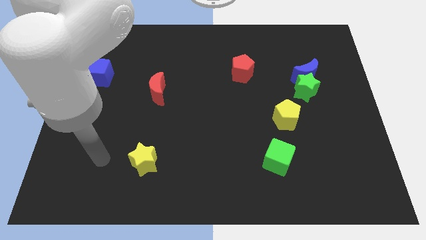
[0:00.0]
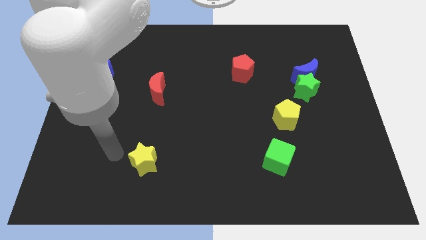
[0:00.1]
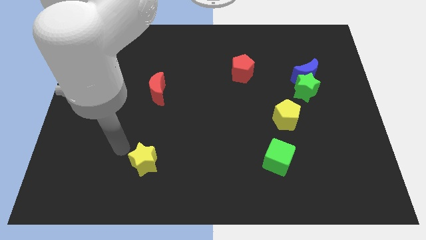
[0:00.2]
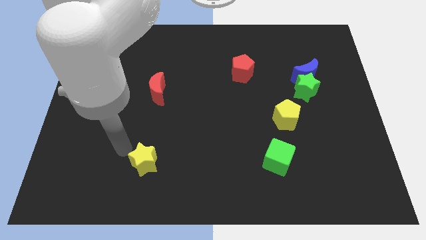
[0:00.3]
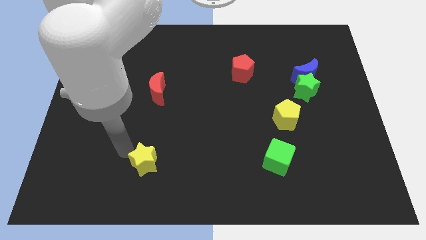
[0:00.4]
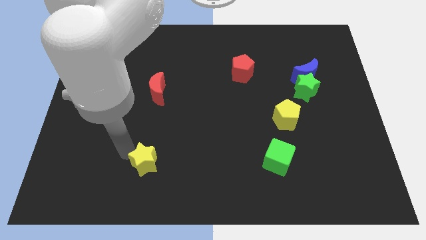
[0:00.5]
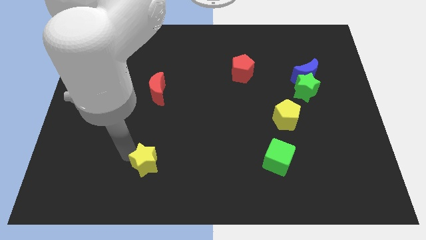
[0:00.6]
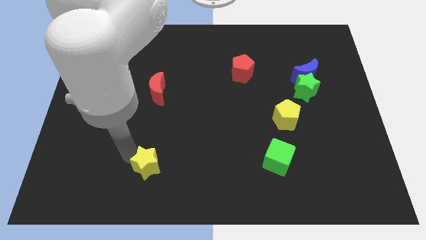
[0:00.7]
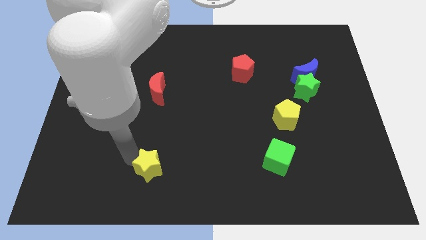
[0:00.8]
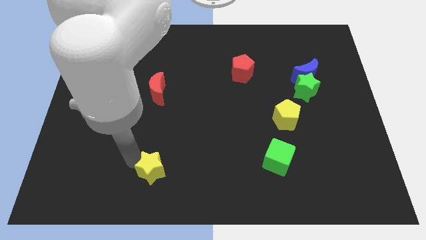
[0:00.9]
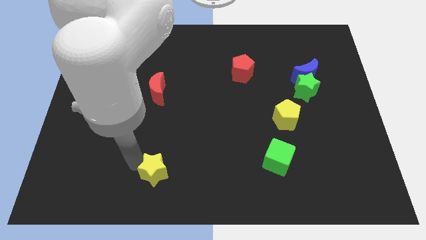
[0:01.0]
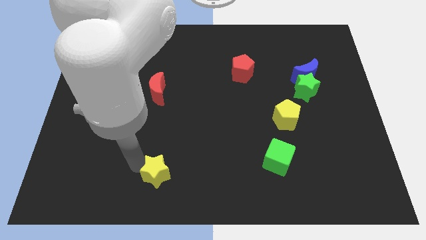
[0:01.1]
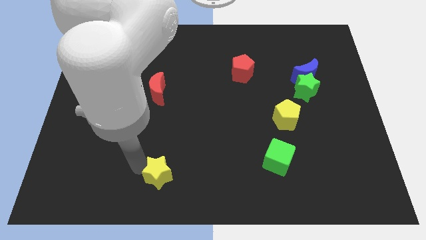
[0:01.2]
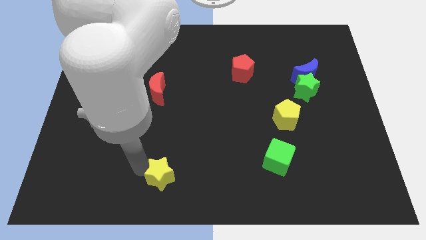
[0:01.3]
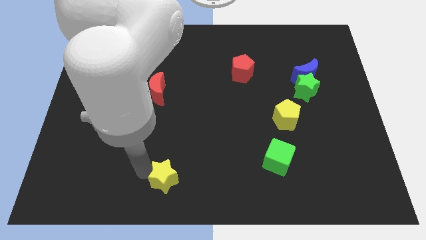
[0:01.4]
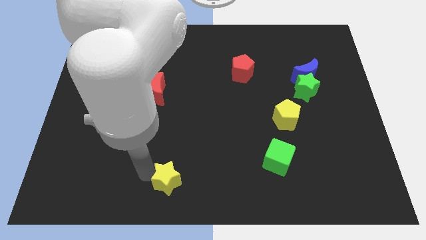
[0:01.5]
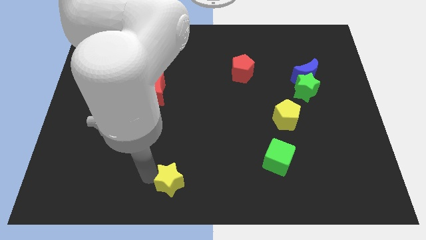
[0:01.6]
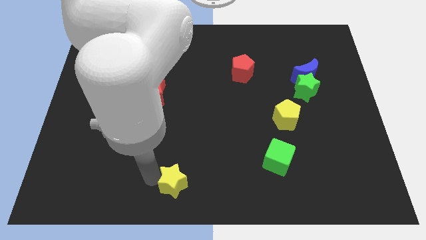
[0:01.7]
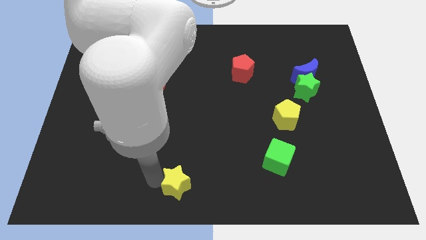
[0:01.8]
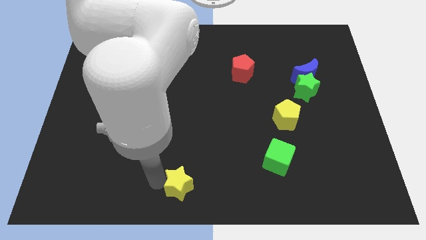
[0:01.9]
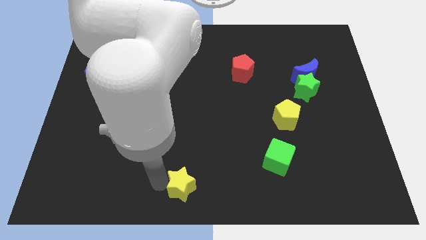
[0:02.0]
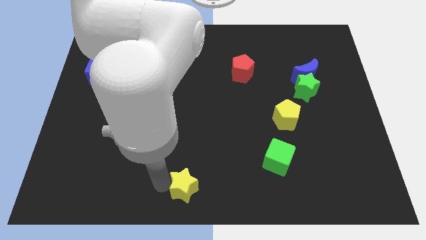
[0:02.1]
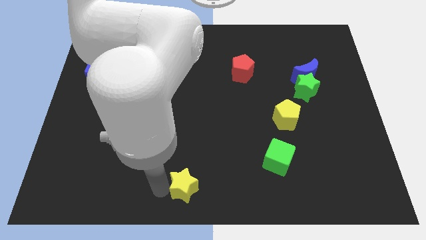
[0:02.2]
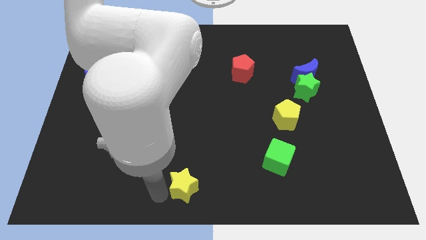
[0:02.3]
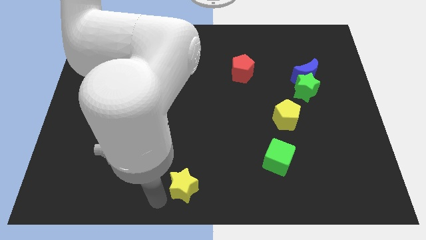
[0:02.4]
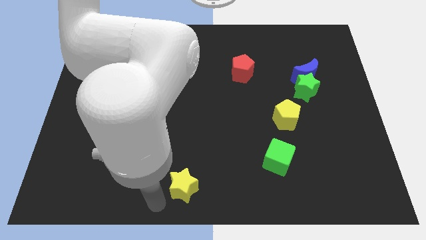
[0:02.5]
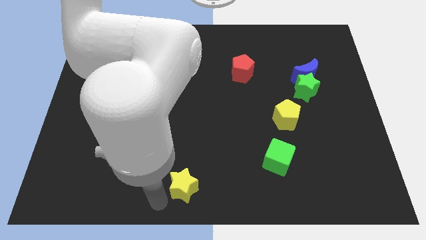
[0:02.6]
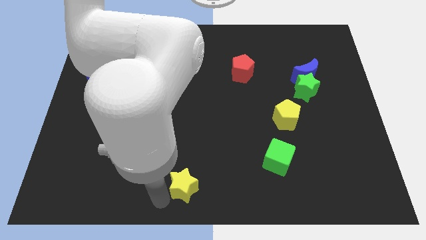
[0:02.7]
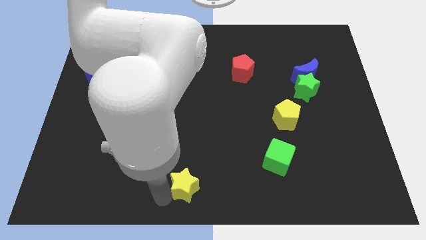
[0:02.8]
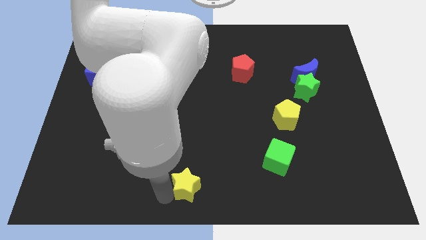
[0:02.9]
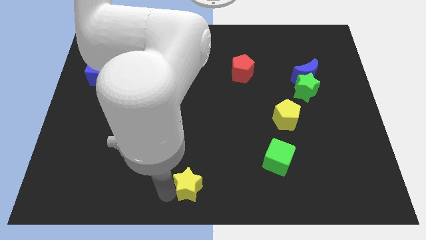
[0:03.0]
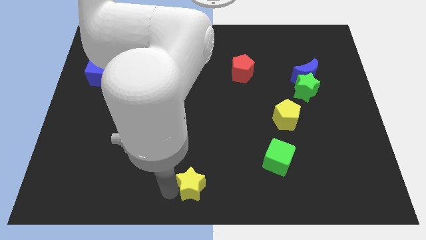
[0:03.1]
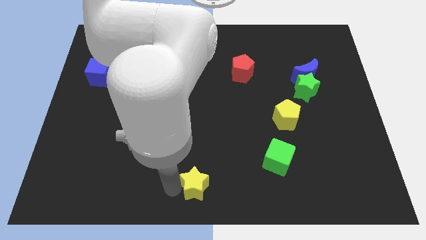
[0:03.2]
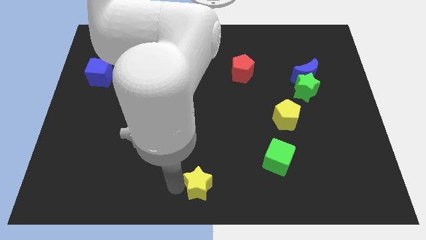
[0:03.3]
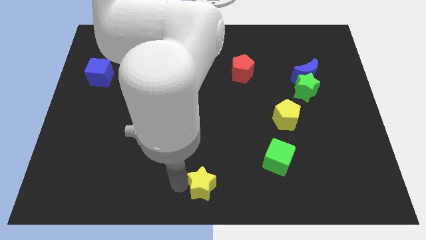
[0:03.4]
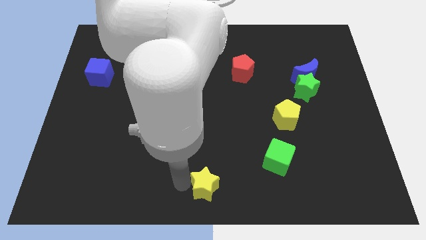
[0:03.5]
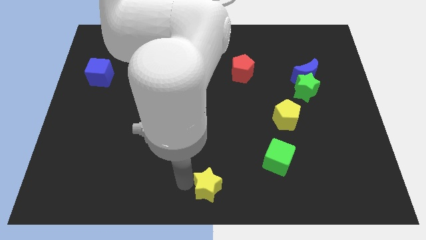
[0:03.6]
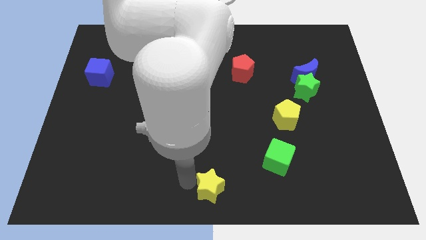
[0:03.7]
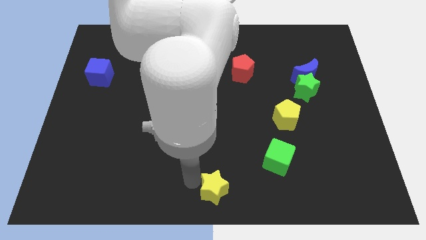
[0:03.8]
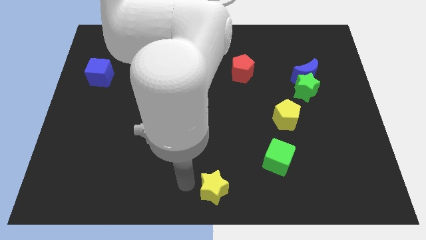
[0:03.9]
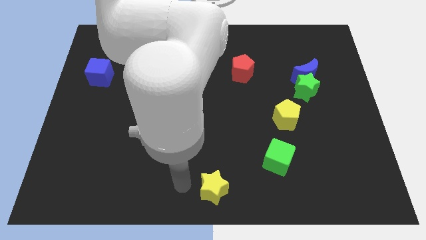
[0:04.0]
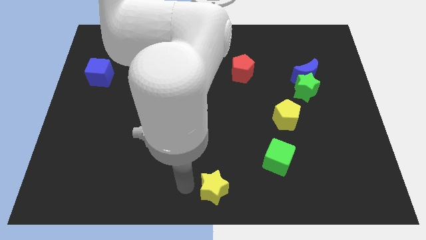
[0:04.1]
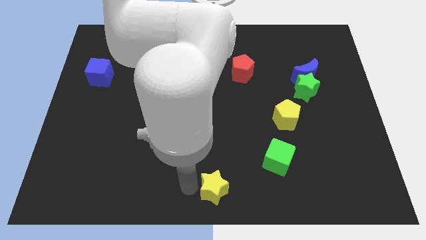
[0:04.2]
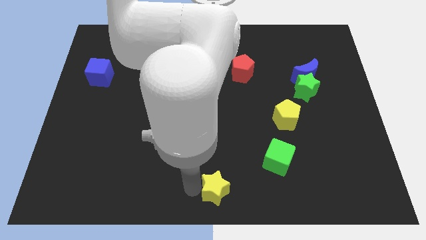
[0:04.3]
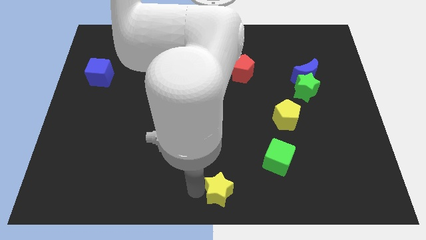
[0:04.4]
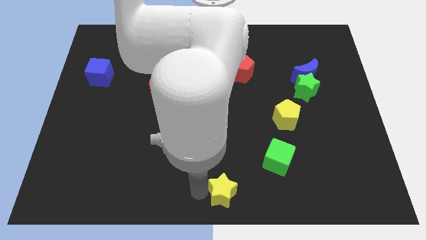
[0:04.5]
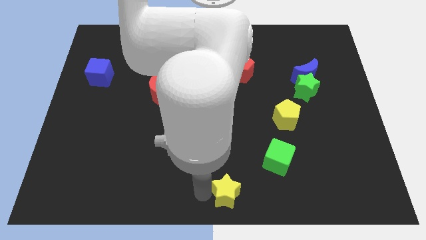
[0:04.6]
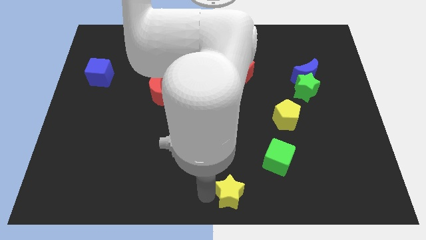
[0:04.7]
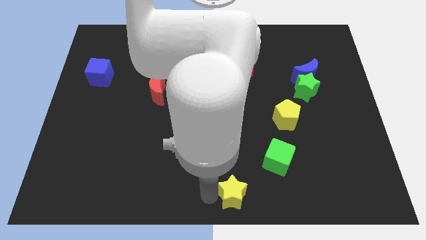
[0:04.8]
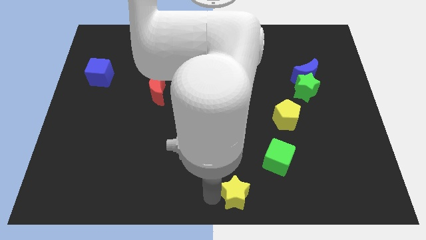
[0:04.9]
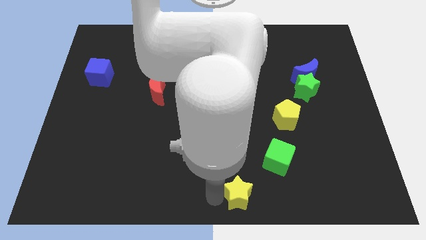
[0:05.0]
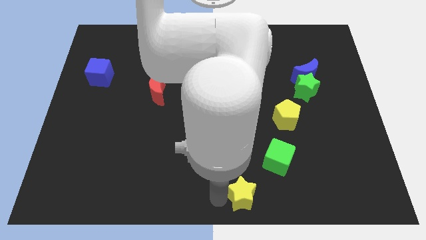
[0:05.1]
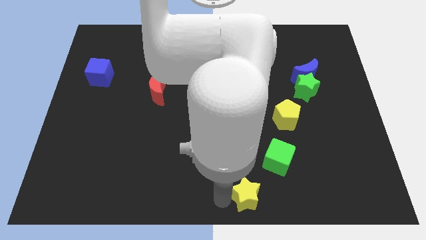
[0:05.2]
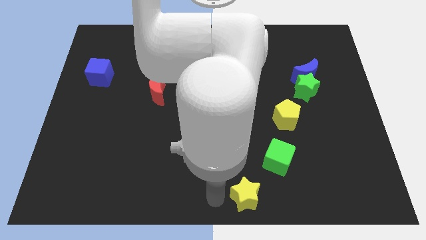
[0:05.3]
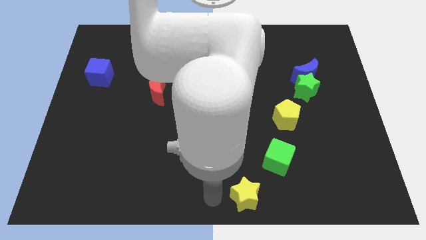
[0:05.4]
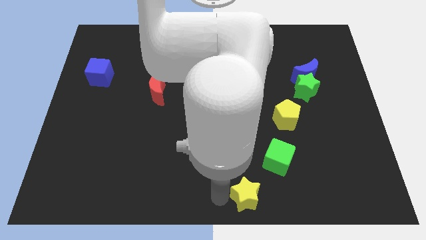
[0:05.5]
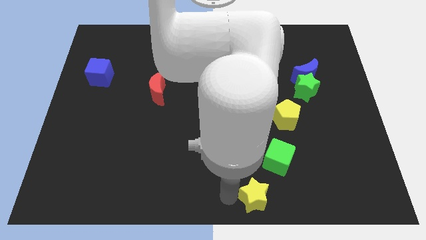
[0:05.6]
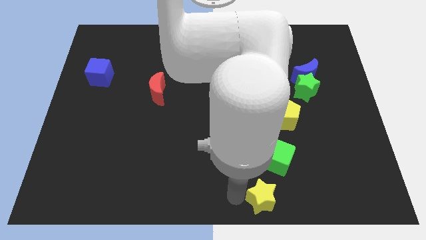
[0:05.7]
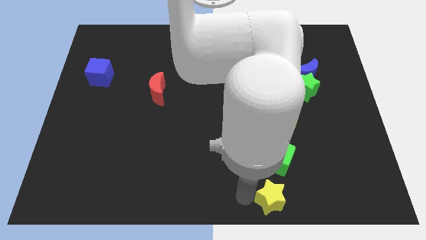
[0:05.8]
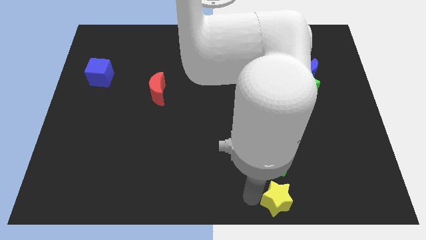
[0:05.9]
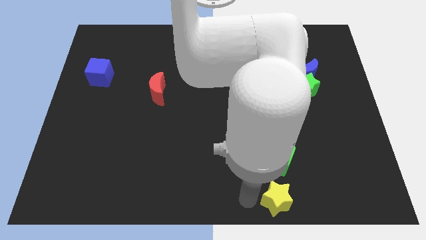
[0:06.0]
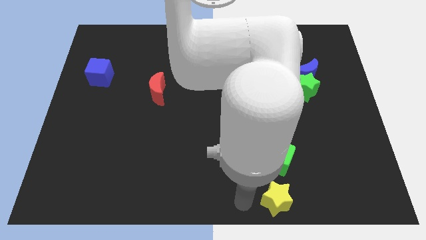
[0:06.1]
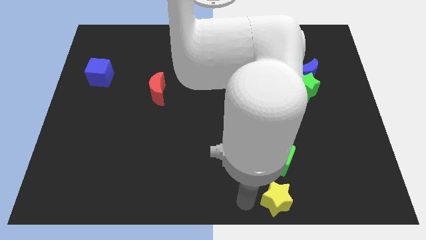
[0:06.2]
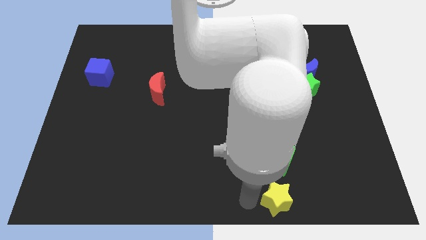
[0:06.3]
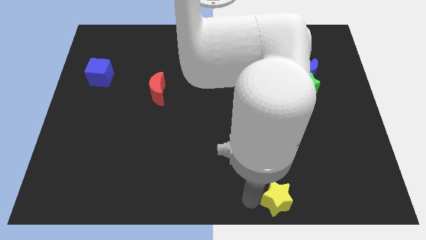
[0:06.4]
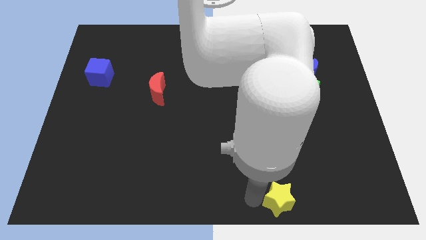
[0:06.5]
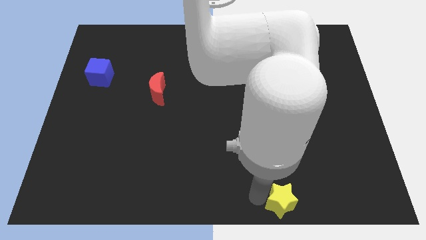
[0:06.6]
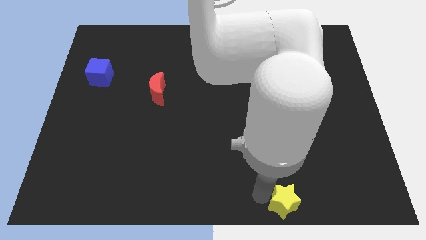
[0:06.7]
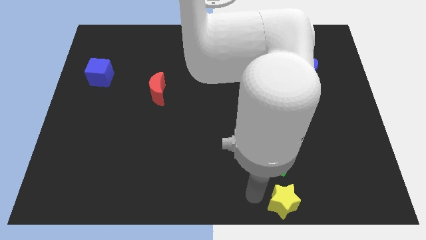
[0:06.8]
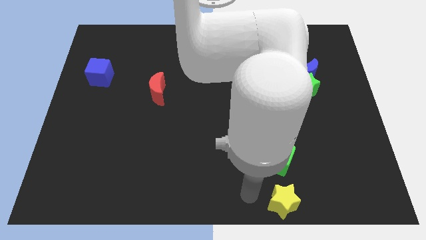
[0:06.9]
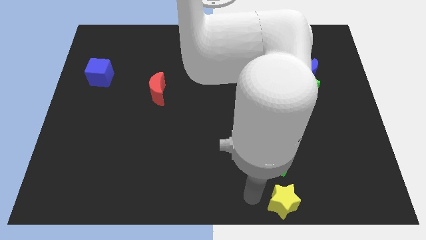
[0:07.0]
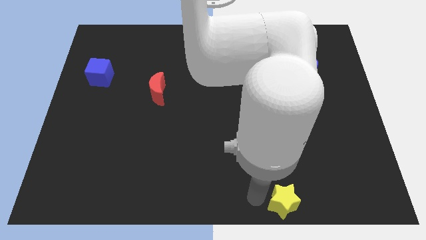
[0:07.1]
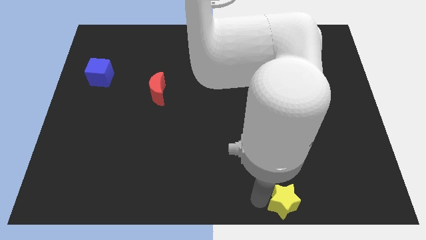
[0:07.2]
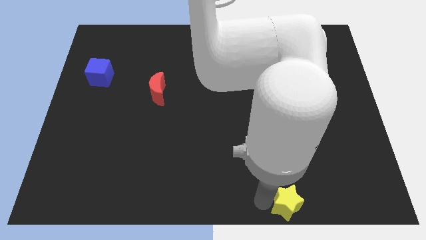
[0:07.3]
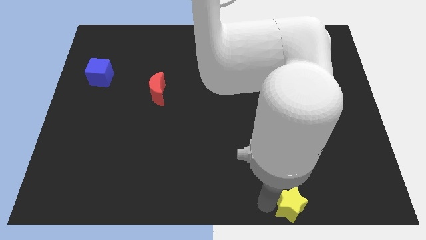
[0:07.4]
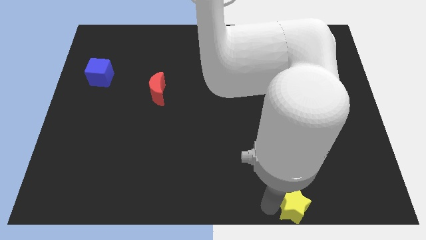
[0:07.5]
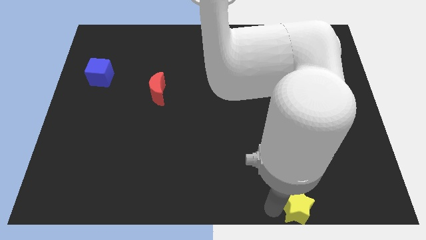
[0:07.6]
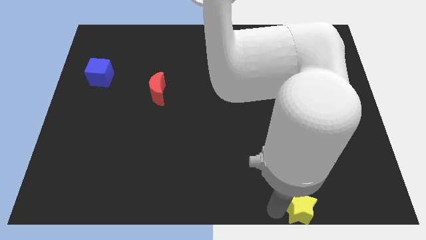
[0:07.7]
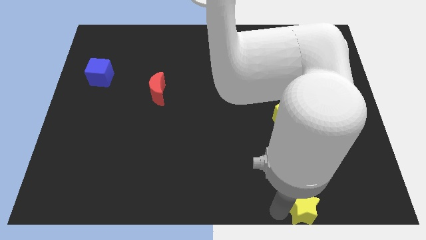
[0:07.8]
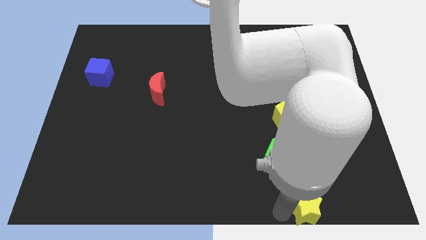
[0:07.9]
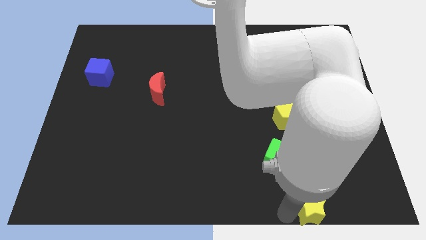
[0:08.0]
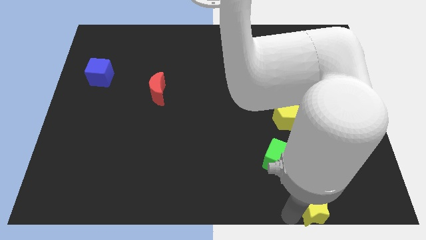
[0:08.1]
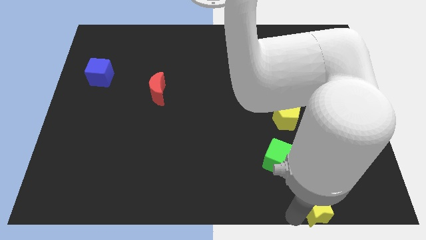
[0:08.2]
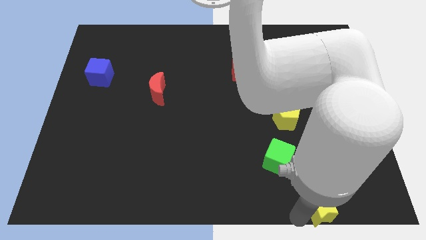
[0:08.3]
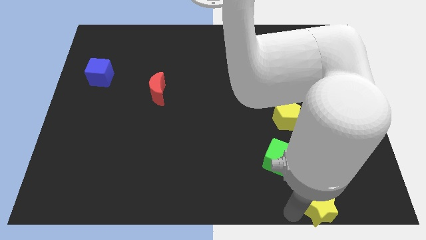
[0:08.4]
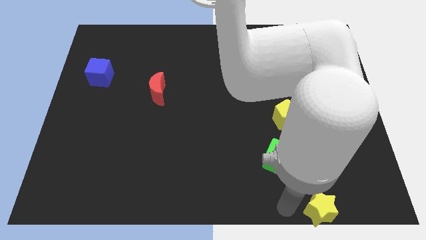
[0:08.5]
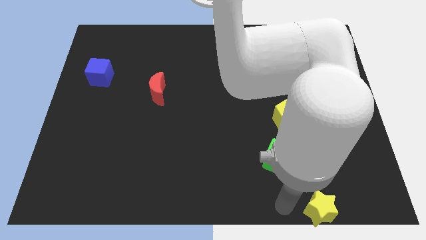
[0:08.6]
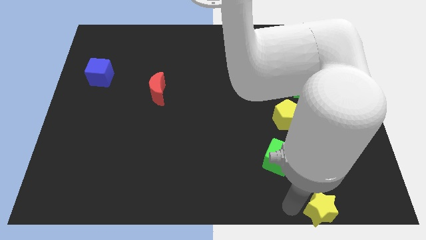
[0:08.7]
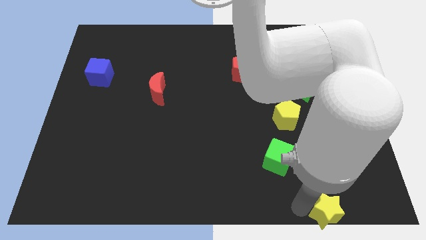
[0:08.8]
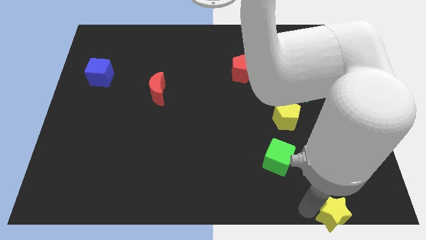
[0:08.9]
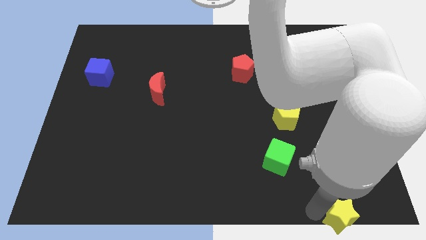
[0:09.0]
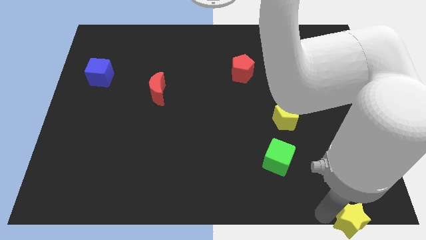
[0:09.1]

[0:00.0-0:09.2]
put the yellow star to the lower right corner
